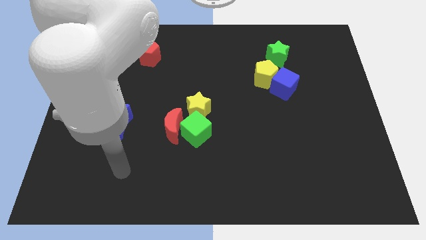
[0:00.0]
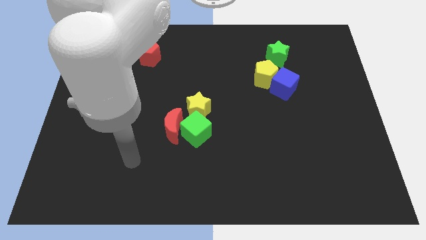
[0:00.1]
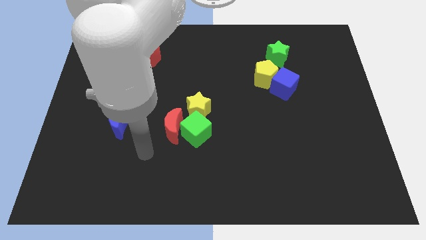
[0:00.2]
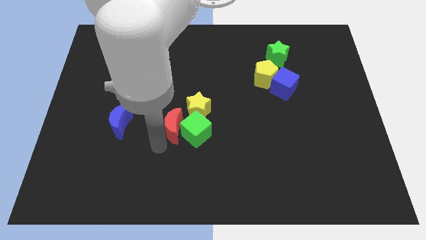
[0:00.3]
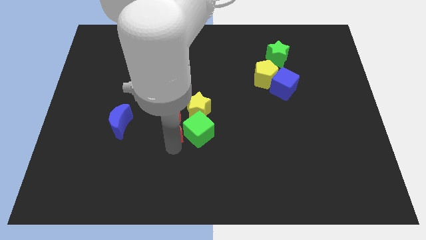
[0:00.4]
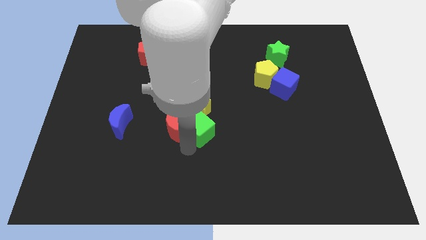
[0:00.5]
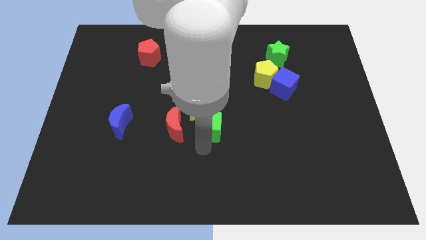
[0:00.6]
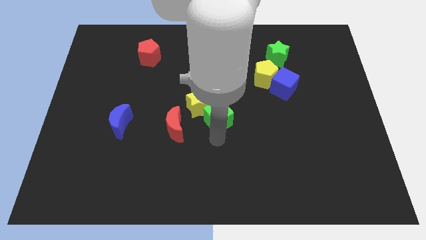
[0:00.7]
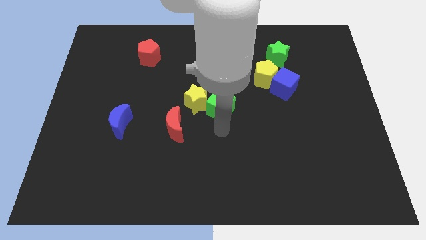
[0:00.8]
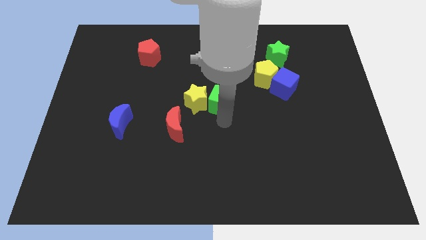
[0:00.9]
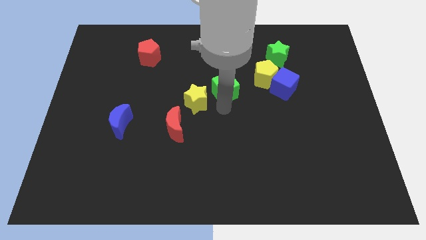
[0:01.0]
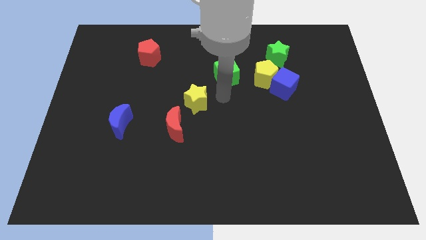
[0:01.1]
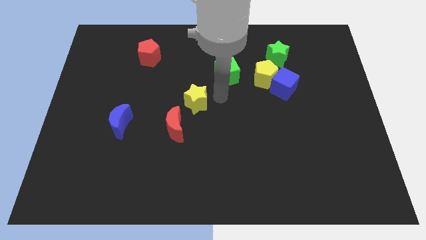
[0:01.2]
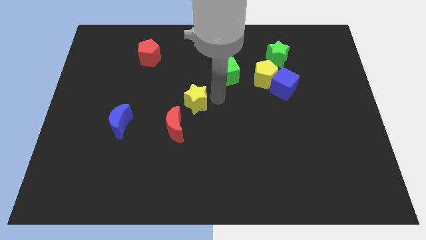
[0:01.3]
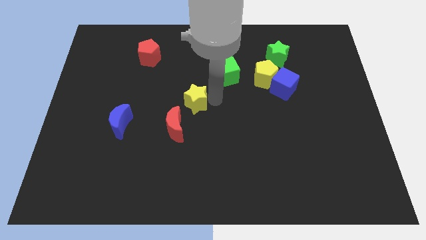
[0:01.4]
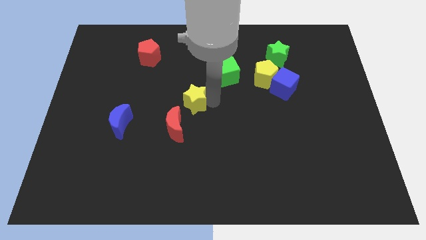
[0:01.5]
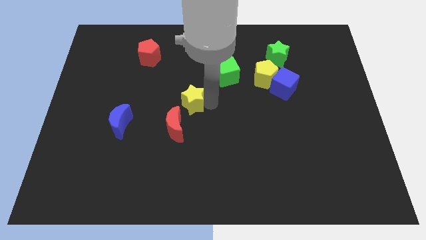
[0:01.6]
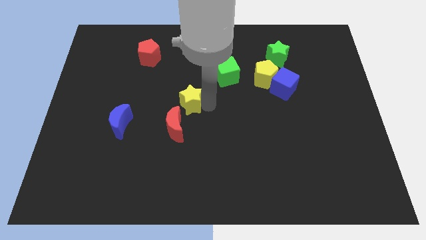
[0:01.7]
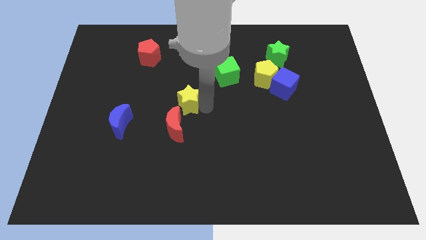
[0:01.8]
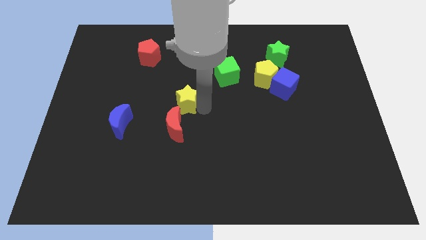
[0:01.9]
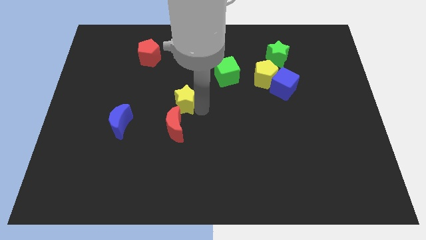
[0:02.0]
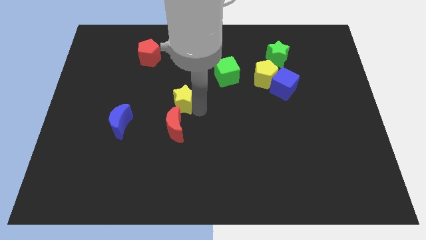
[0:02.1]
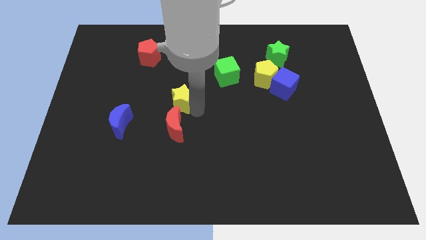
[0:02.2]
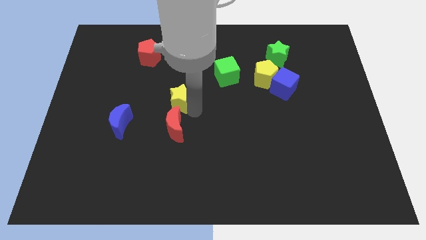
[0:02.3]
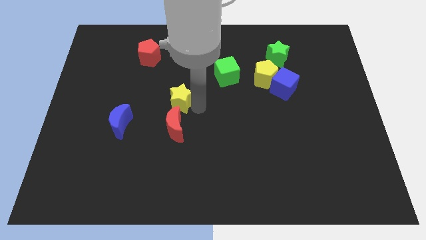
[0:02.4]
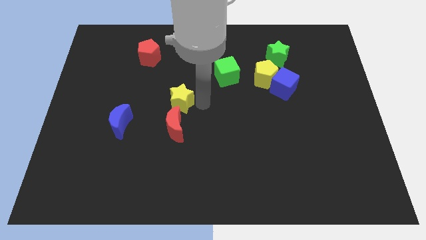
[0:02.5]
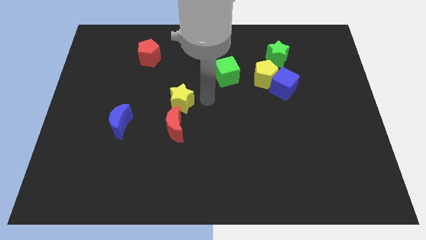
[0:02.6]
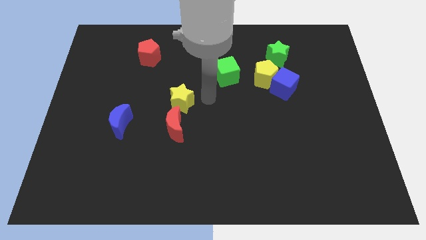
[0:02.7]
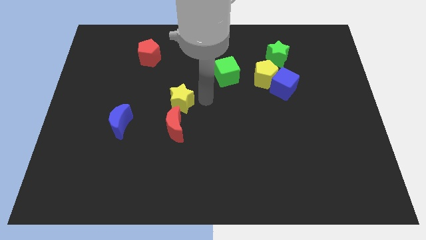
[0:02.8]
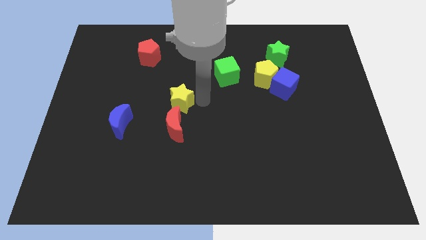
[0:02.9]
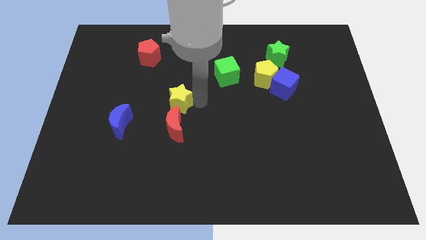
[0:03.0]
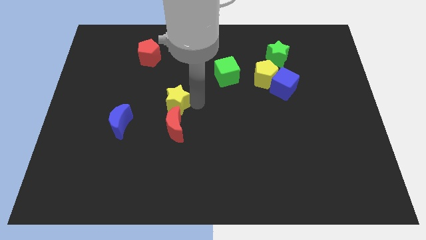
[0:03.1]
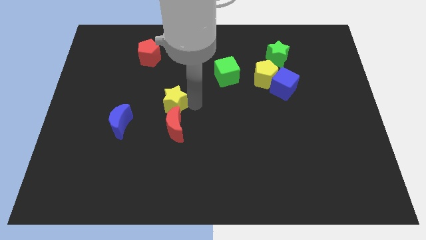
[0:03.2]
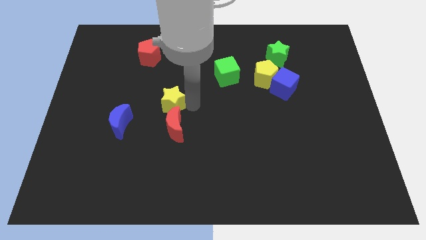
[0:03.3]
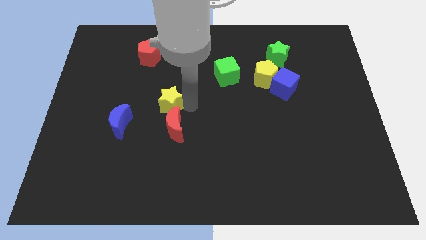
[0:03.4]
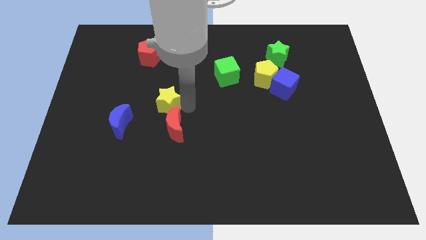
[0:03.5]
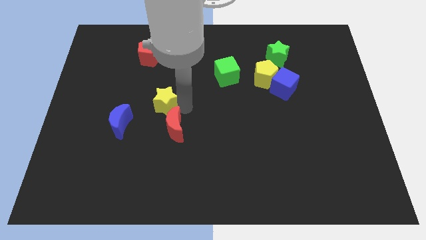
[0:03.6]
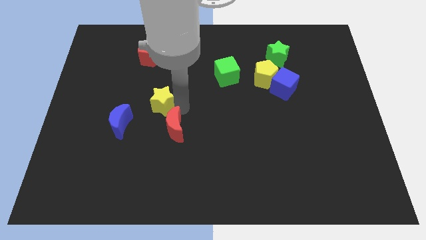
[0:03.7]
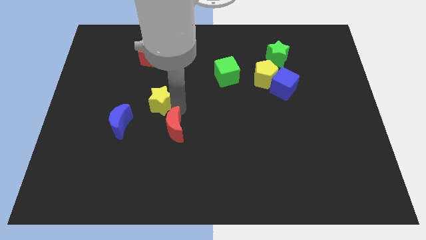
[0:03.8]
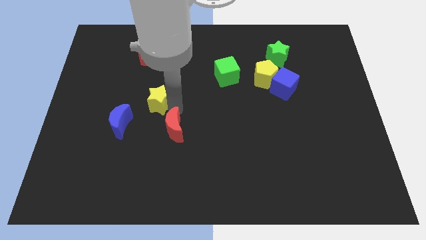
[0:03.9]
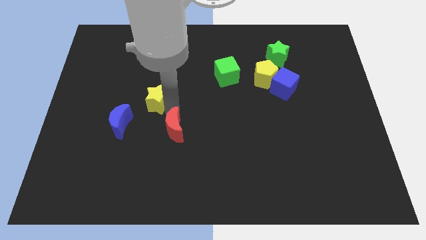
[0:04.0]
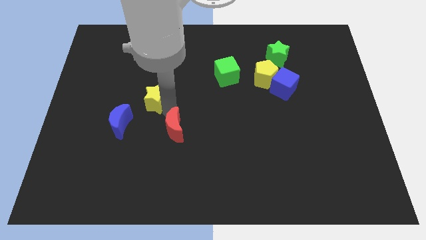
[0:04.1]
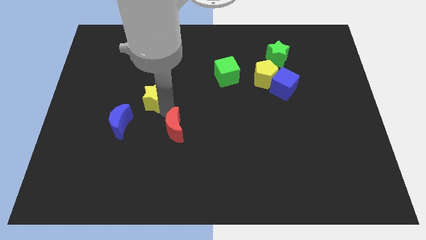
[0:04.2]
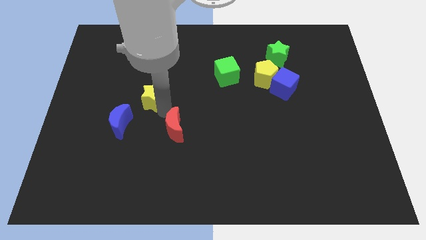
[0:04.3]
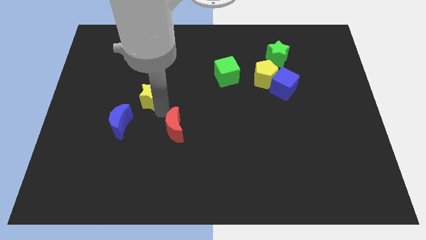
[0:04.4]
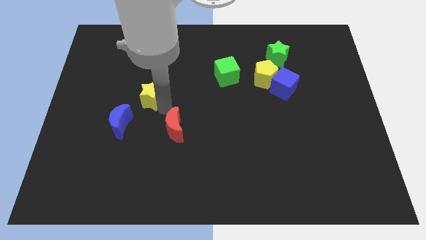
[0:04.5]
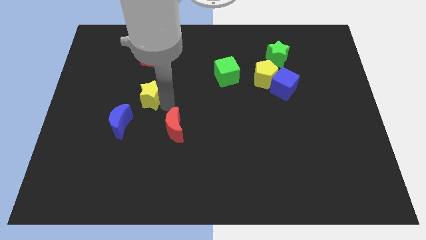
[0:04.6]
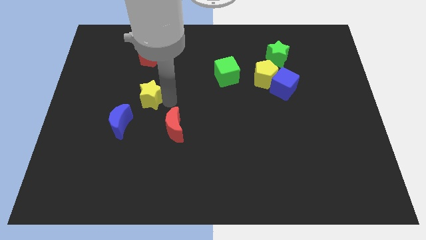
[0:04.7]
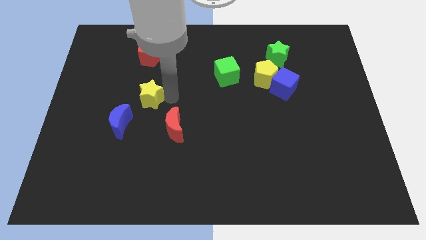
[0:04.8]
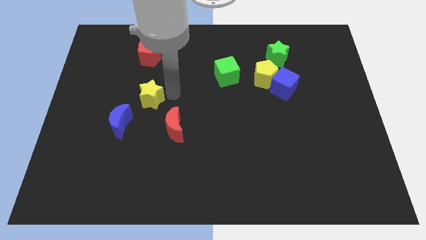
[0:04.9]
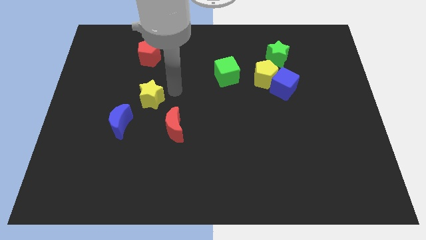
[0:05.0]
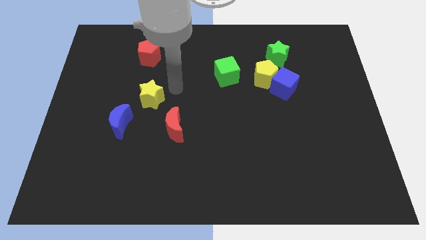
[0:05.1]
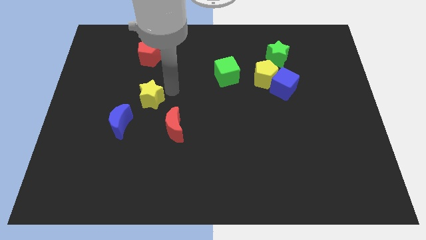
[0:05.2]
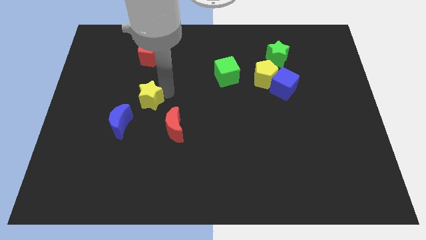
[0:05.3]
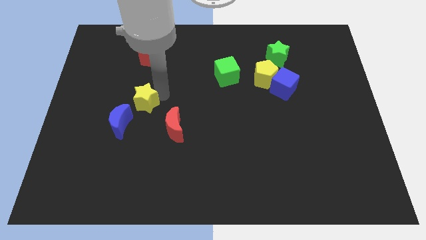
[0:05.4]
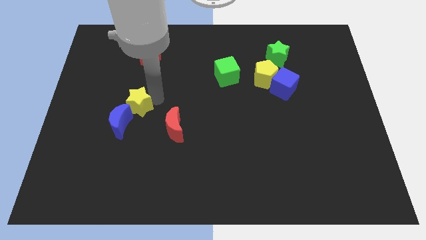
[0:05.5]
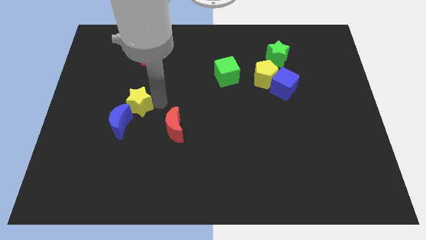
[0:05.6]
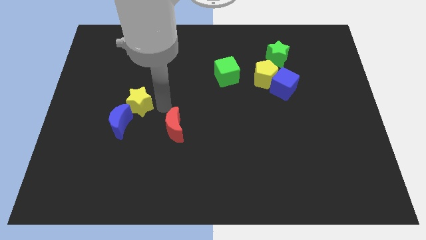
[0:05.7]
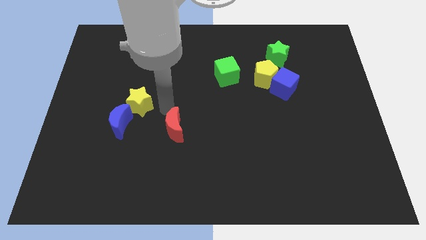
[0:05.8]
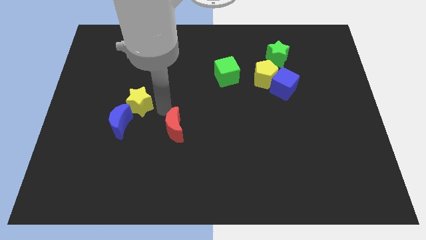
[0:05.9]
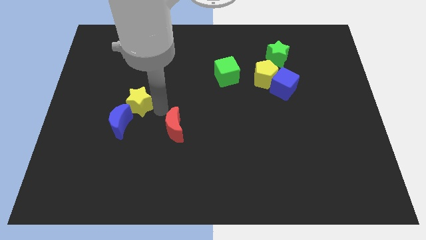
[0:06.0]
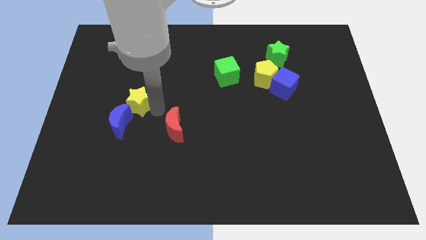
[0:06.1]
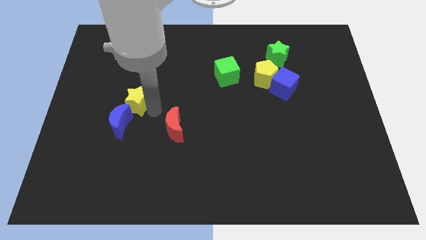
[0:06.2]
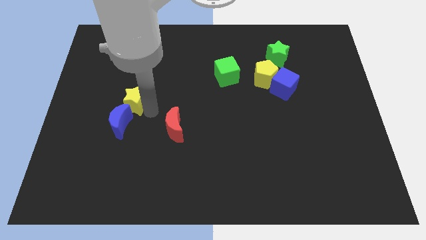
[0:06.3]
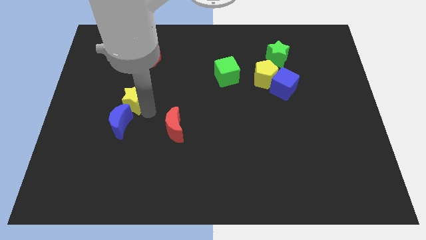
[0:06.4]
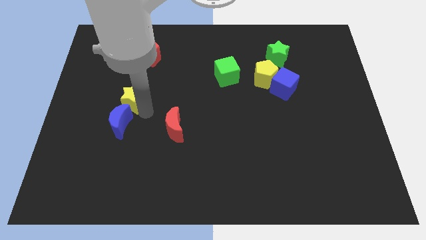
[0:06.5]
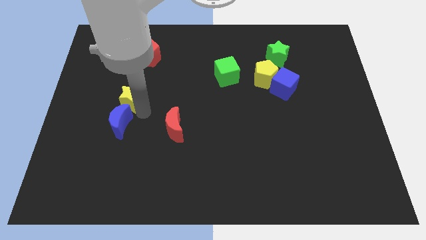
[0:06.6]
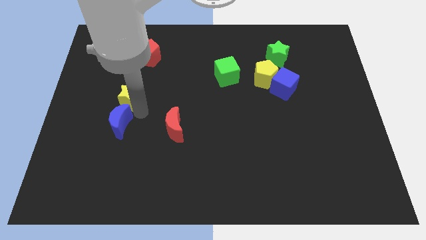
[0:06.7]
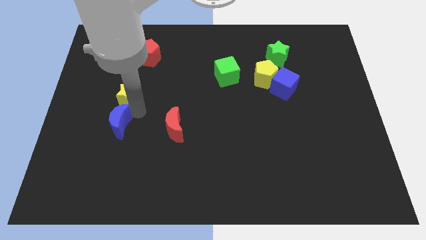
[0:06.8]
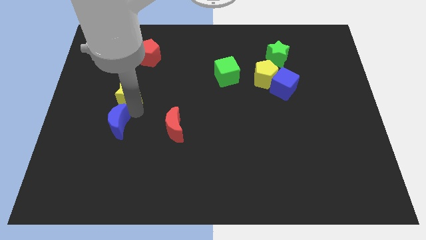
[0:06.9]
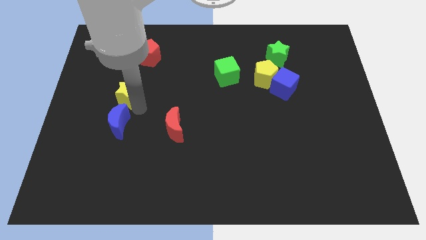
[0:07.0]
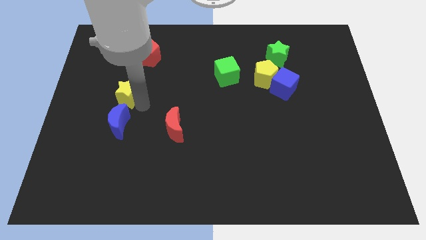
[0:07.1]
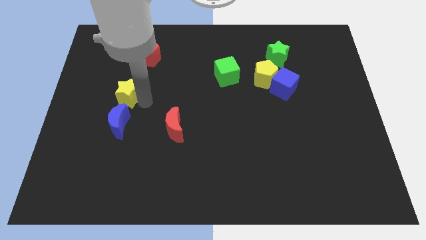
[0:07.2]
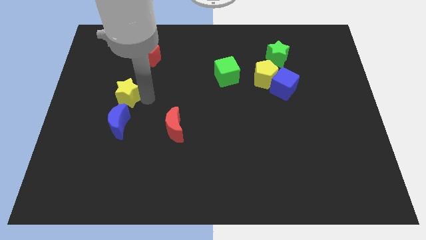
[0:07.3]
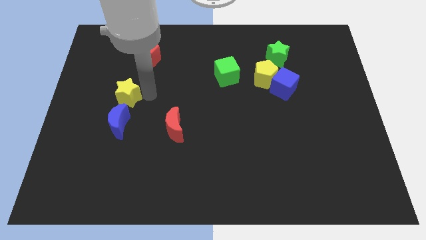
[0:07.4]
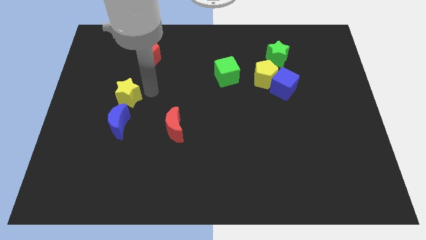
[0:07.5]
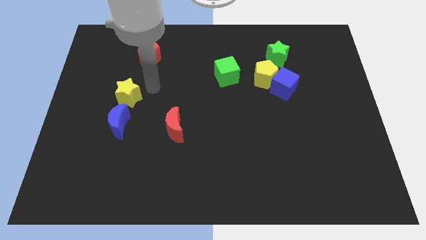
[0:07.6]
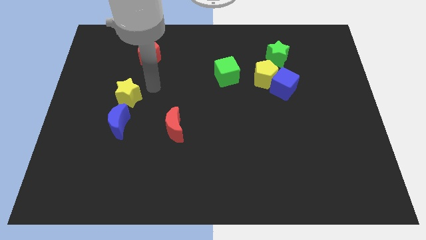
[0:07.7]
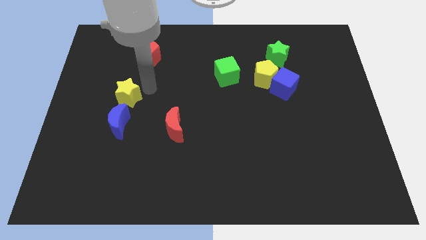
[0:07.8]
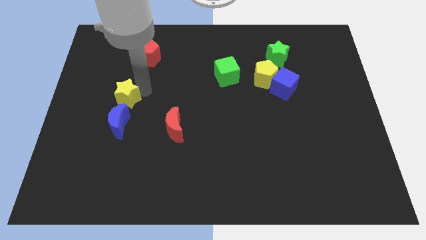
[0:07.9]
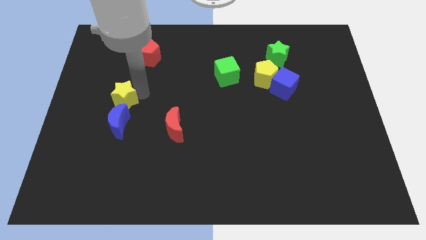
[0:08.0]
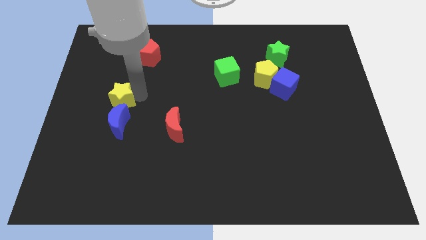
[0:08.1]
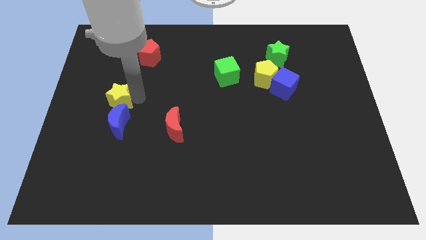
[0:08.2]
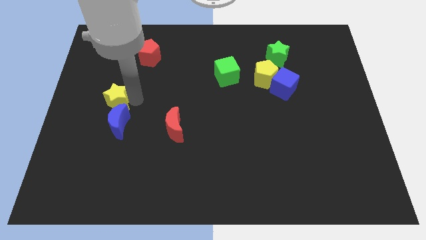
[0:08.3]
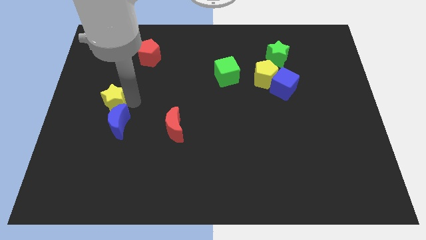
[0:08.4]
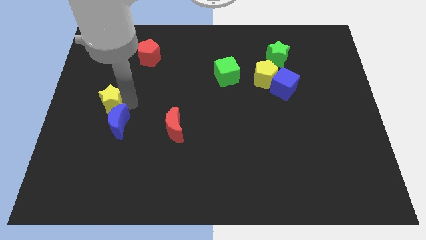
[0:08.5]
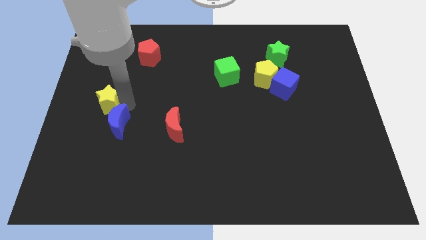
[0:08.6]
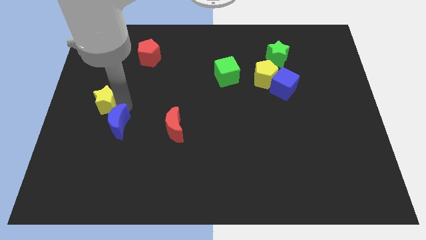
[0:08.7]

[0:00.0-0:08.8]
slide the yellow star to the center left
